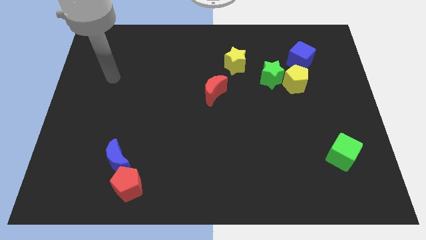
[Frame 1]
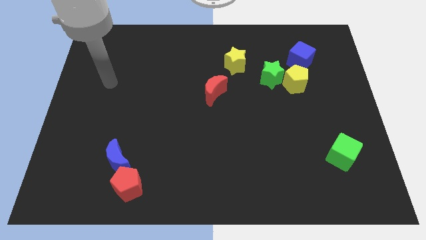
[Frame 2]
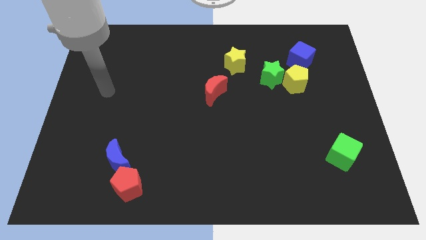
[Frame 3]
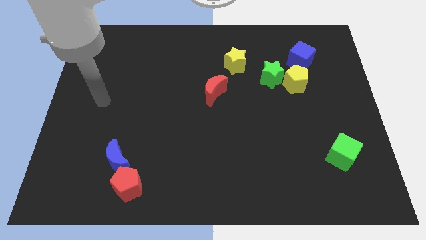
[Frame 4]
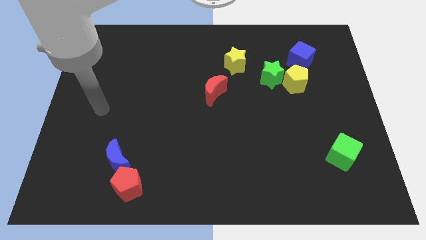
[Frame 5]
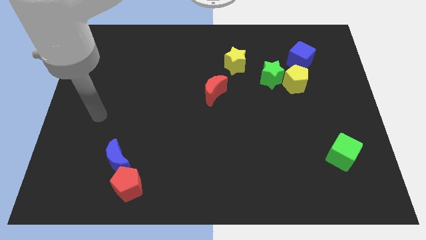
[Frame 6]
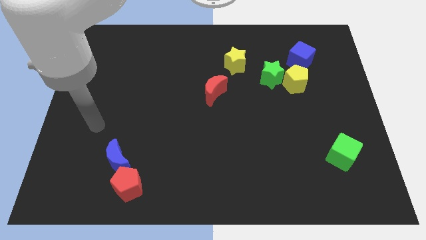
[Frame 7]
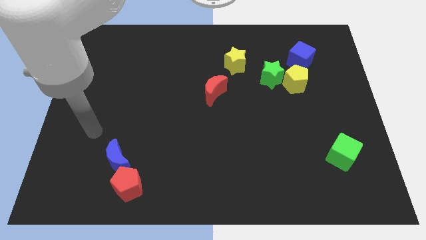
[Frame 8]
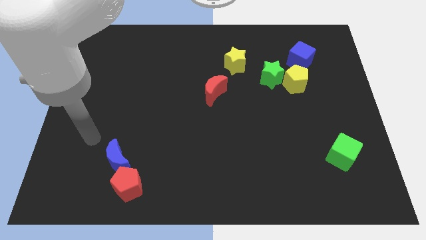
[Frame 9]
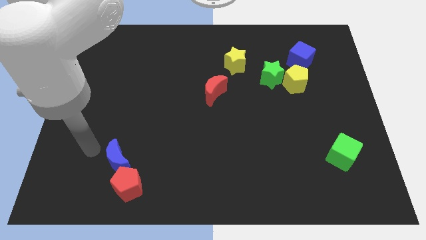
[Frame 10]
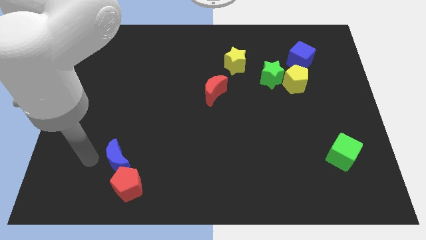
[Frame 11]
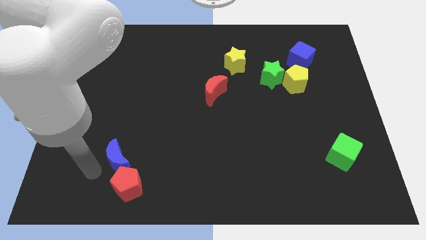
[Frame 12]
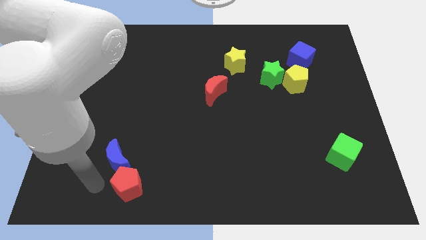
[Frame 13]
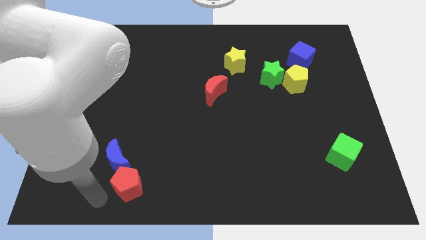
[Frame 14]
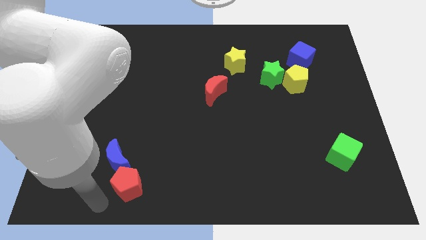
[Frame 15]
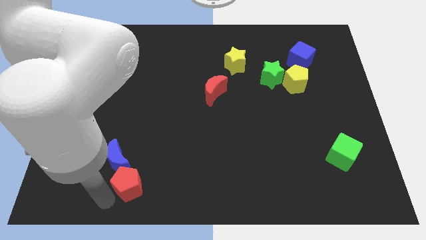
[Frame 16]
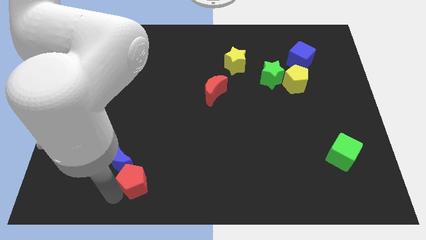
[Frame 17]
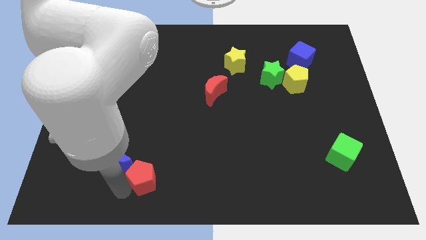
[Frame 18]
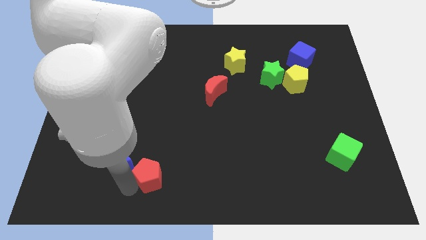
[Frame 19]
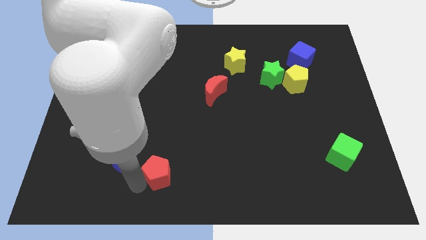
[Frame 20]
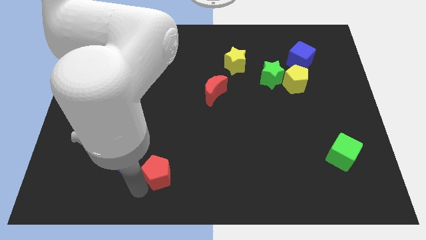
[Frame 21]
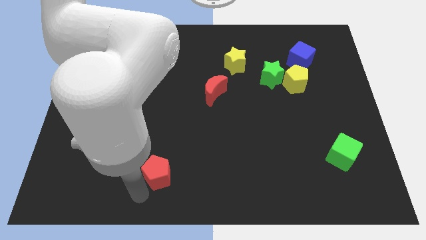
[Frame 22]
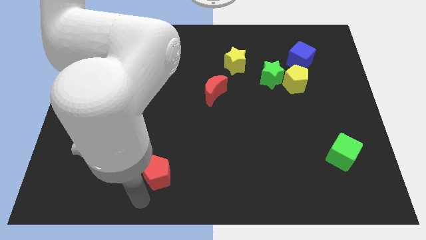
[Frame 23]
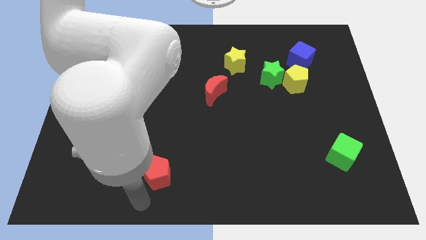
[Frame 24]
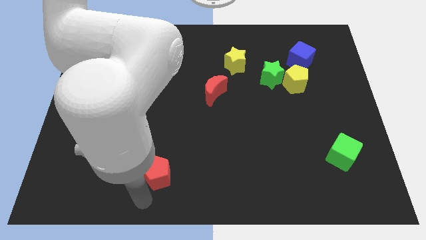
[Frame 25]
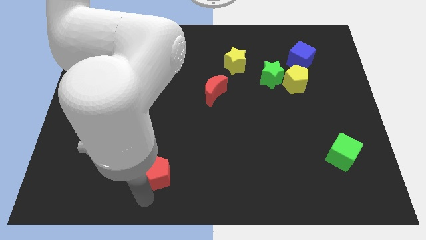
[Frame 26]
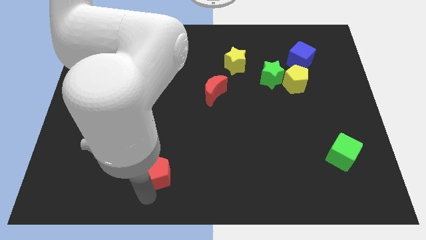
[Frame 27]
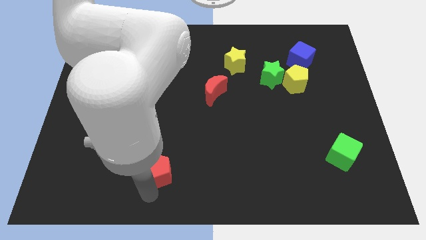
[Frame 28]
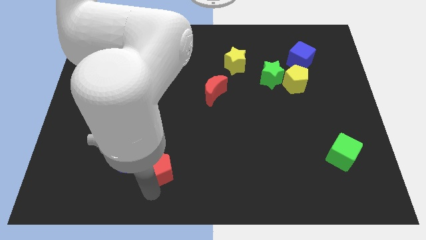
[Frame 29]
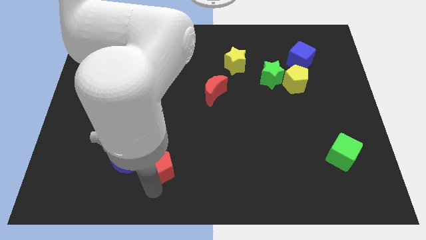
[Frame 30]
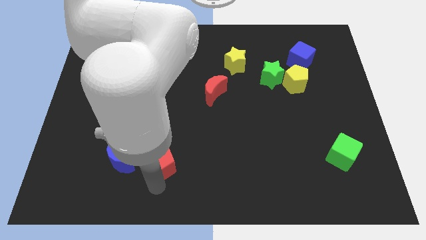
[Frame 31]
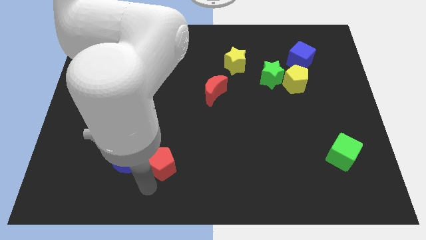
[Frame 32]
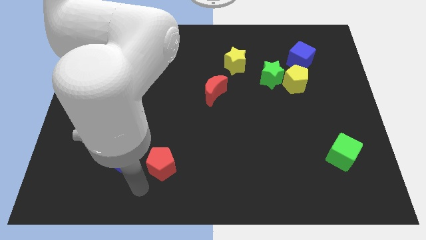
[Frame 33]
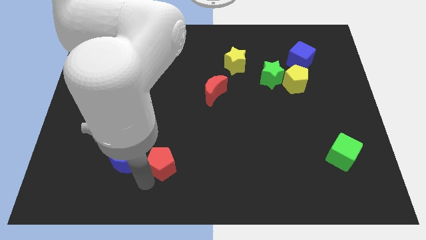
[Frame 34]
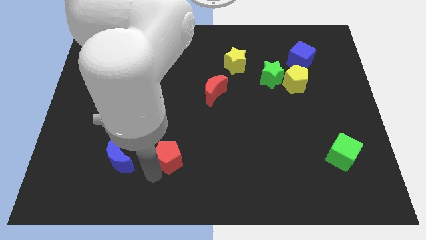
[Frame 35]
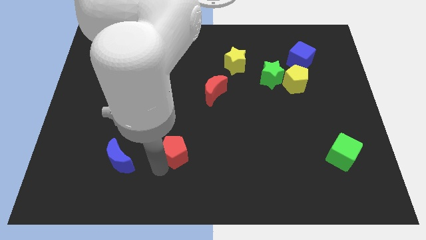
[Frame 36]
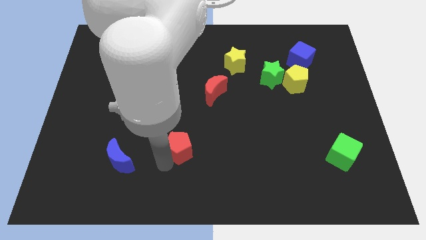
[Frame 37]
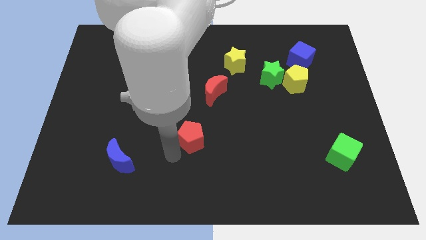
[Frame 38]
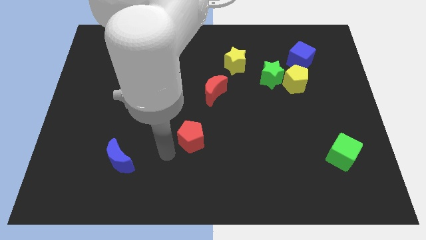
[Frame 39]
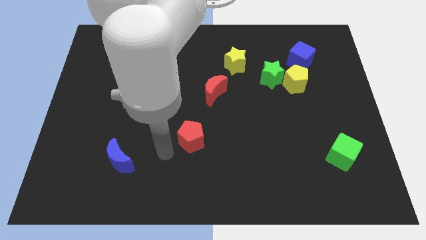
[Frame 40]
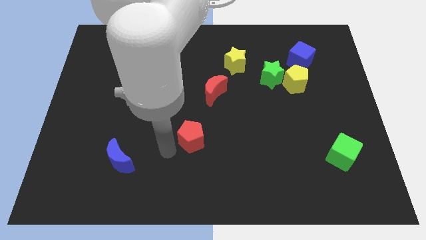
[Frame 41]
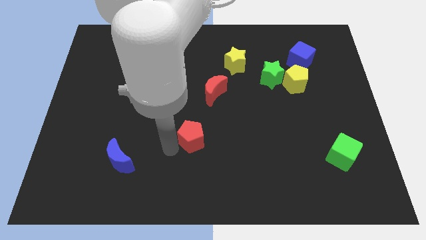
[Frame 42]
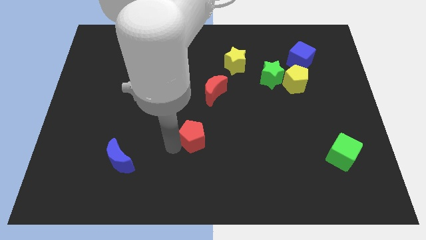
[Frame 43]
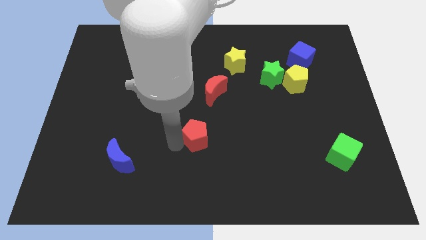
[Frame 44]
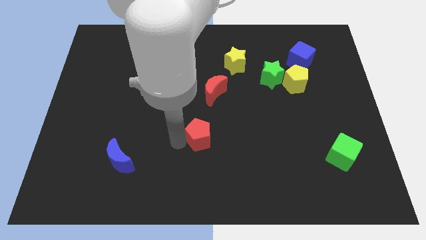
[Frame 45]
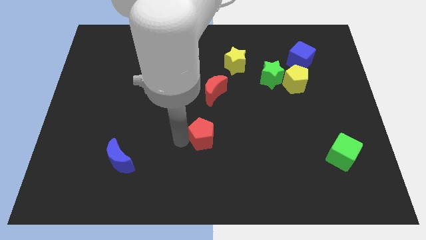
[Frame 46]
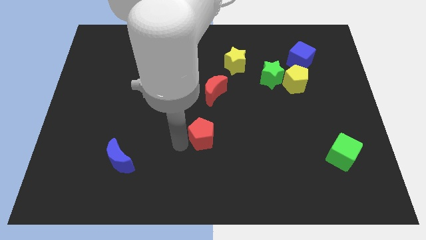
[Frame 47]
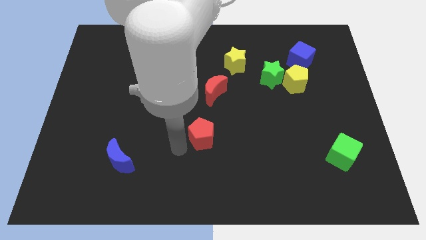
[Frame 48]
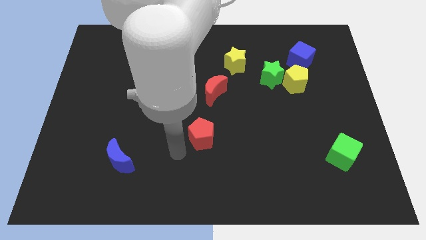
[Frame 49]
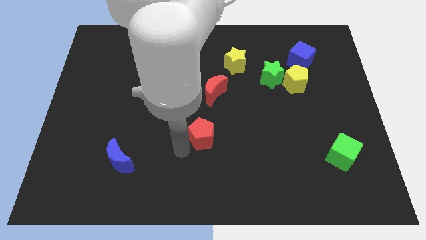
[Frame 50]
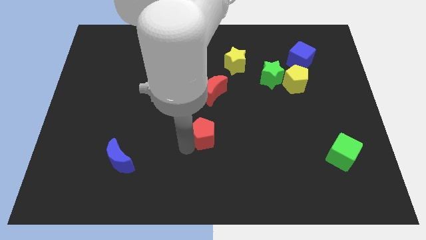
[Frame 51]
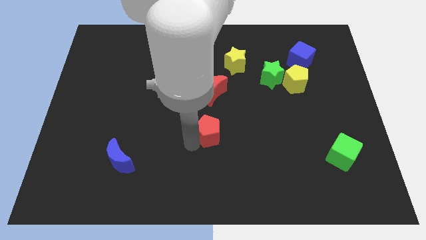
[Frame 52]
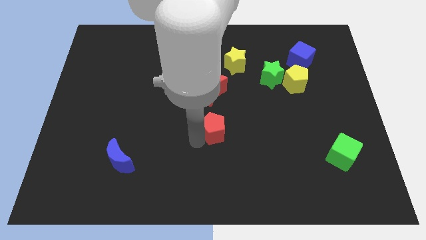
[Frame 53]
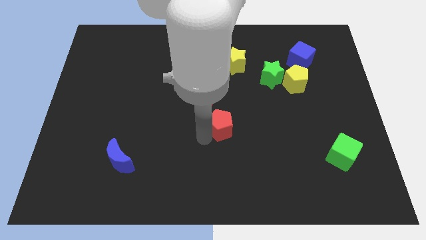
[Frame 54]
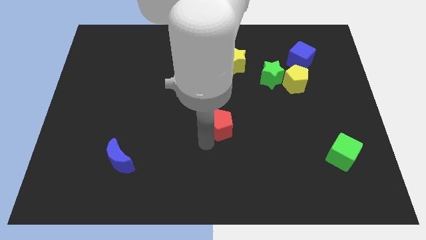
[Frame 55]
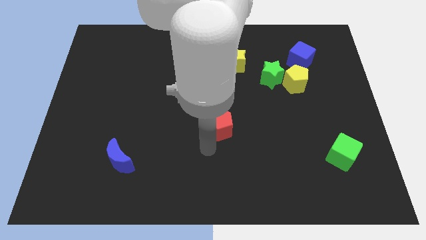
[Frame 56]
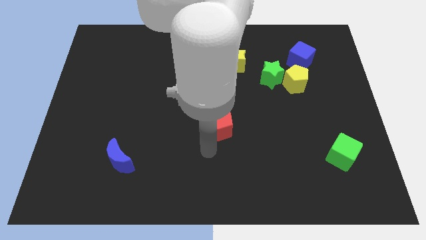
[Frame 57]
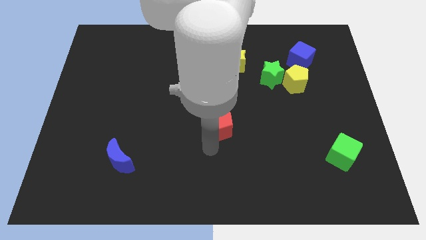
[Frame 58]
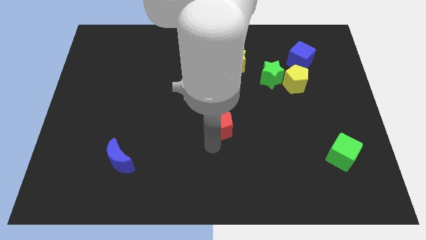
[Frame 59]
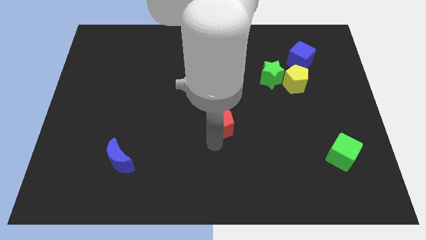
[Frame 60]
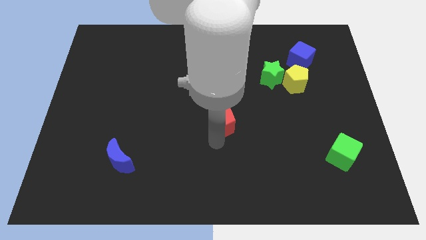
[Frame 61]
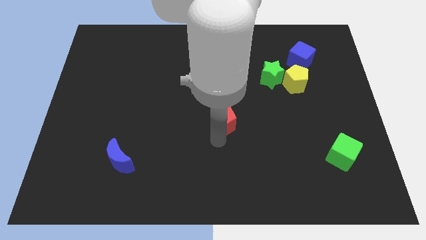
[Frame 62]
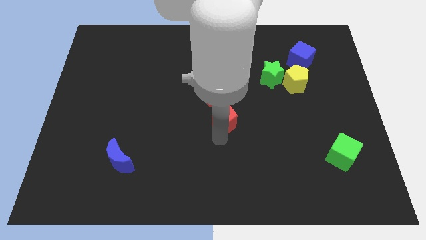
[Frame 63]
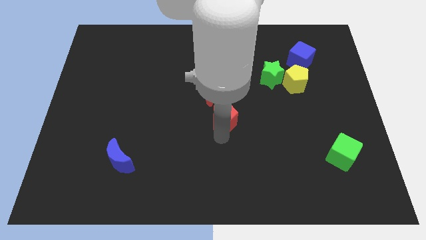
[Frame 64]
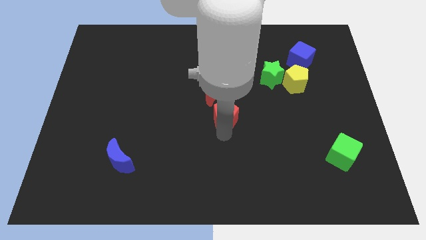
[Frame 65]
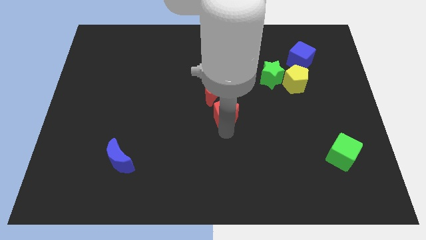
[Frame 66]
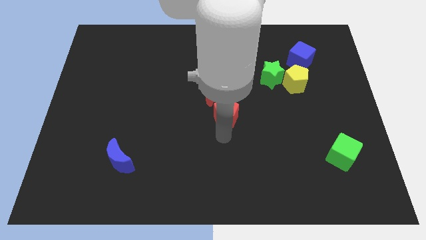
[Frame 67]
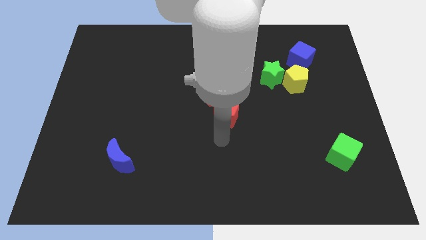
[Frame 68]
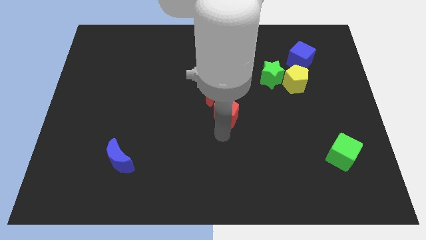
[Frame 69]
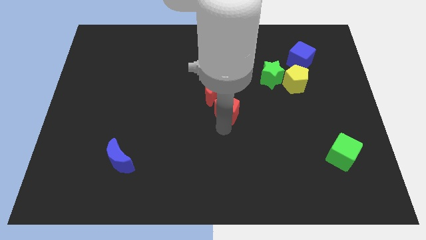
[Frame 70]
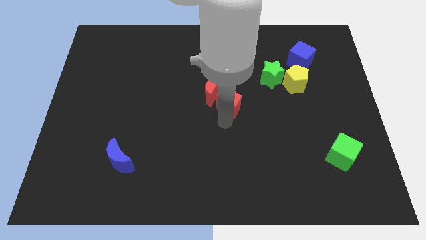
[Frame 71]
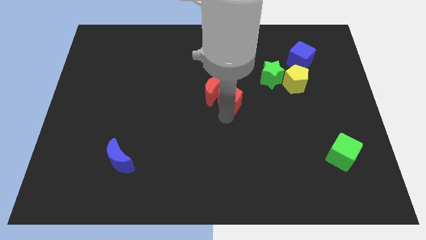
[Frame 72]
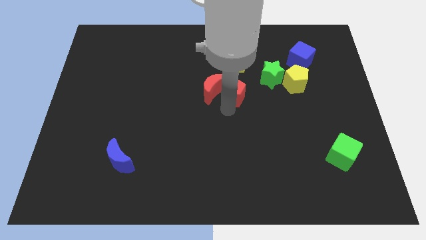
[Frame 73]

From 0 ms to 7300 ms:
put the red pentagon to the top right side of the red moon
